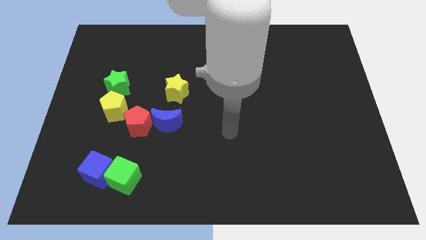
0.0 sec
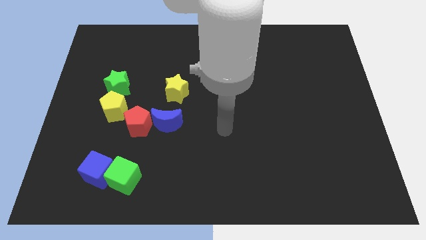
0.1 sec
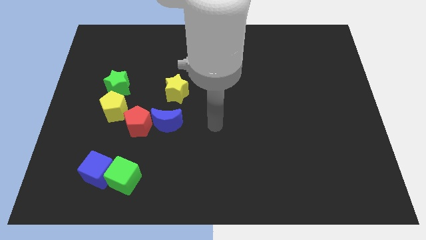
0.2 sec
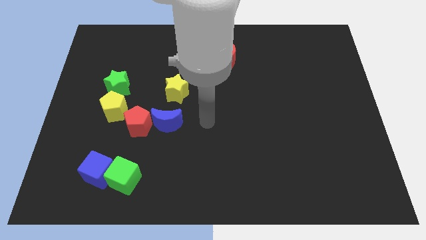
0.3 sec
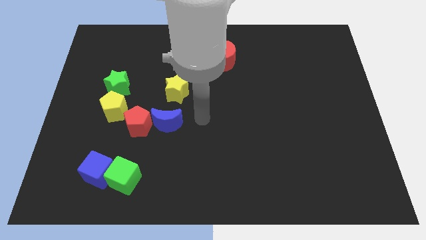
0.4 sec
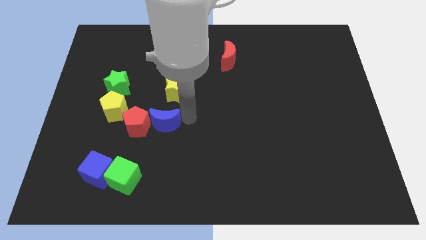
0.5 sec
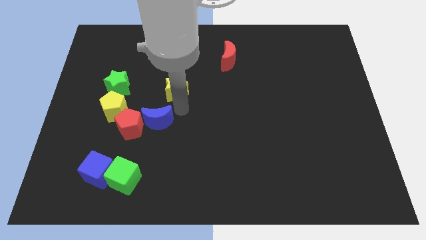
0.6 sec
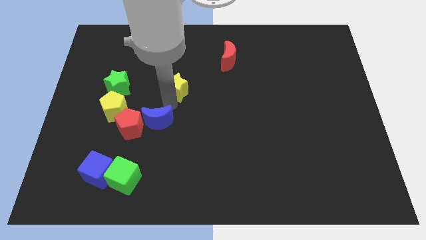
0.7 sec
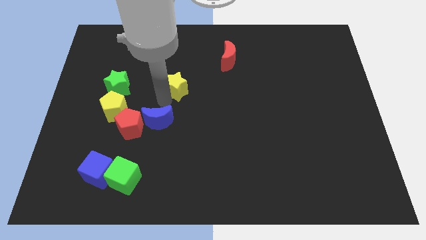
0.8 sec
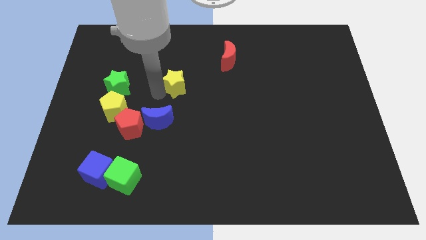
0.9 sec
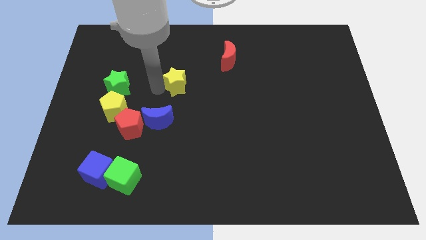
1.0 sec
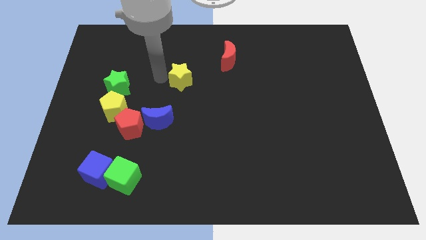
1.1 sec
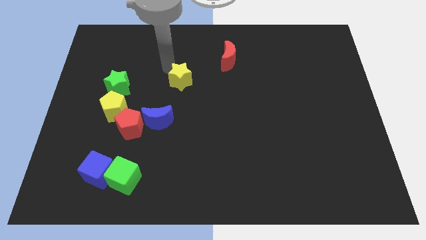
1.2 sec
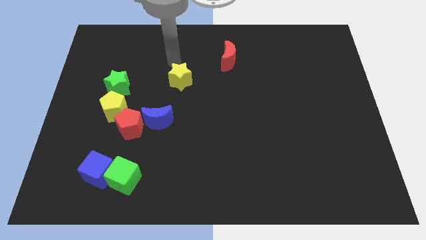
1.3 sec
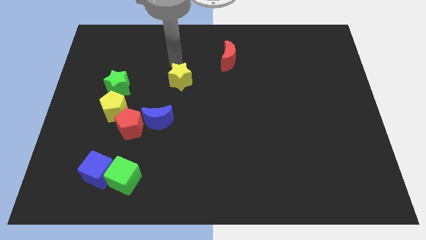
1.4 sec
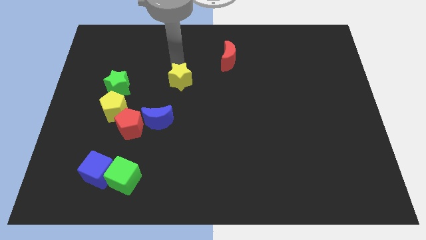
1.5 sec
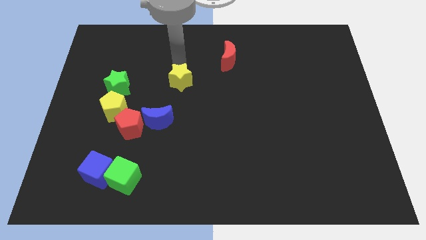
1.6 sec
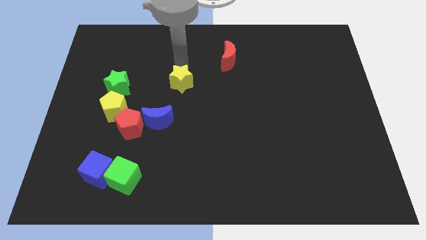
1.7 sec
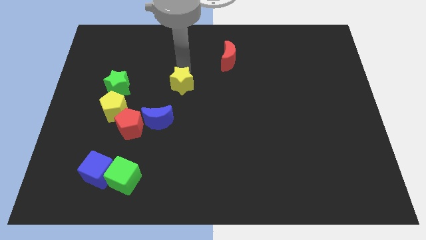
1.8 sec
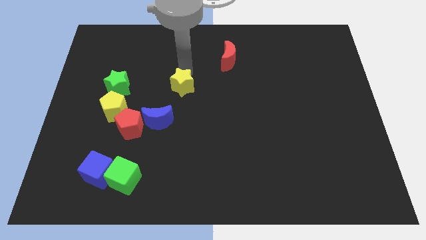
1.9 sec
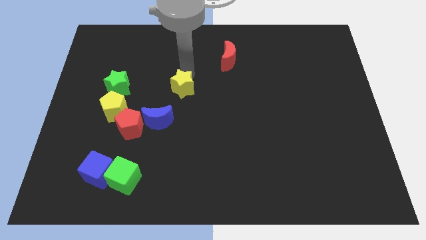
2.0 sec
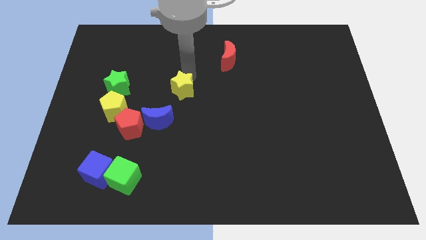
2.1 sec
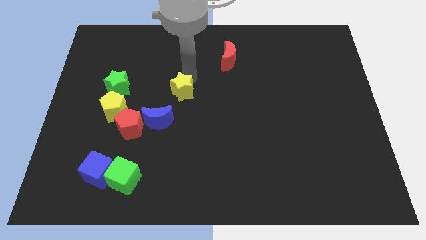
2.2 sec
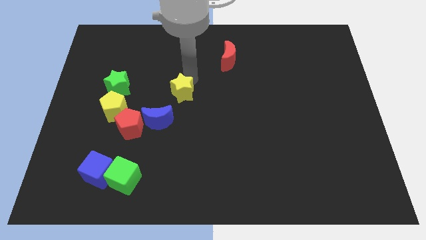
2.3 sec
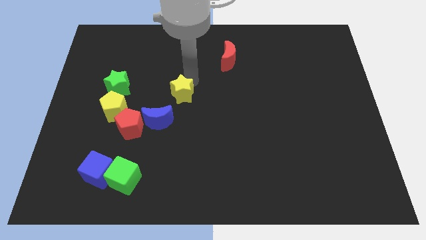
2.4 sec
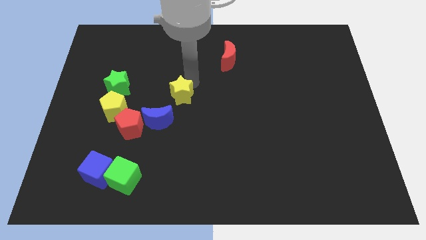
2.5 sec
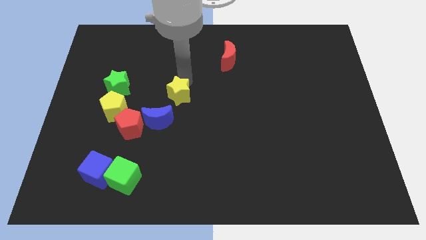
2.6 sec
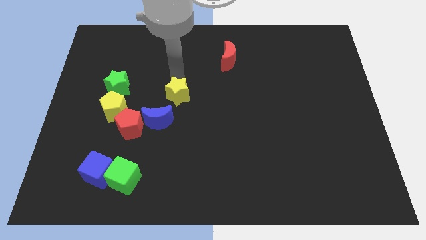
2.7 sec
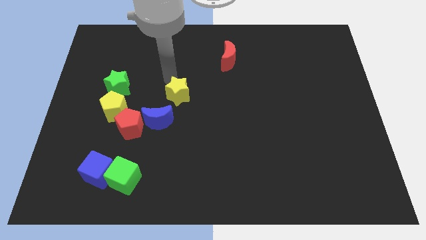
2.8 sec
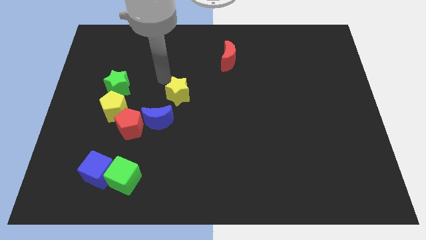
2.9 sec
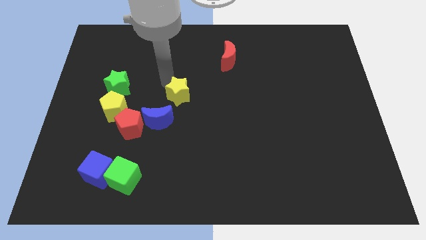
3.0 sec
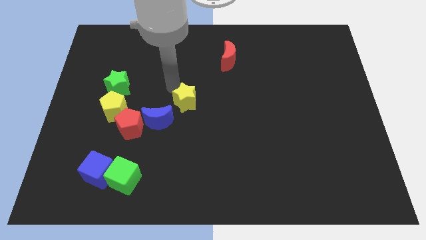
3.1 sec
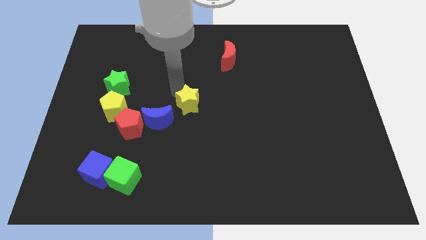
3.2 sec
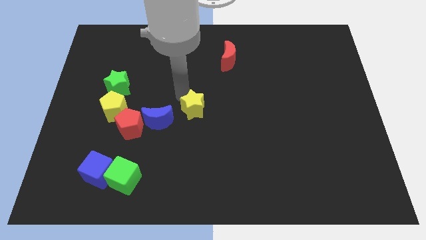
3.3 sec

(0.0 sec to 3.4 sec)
slightly slide the yellow star diagonally down and right

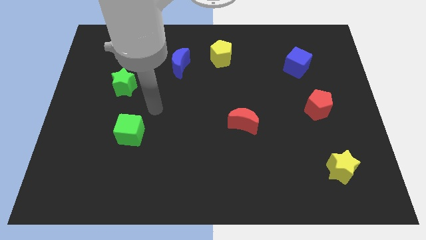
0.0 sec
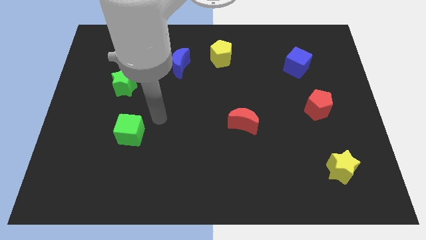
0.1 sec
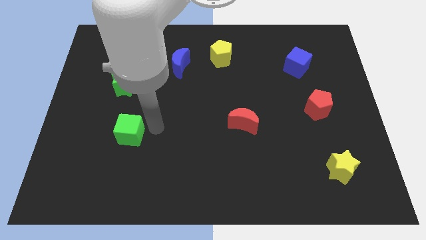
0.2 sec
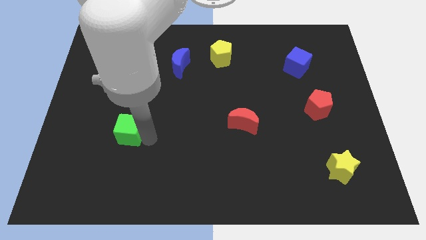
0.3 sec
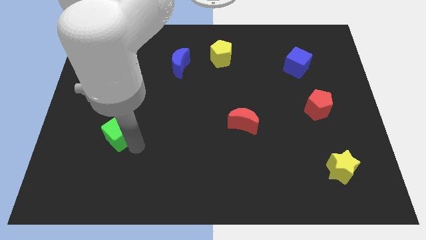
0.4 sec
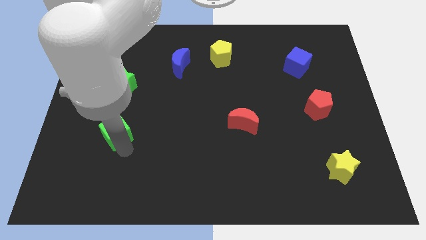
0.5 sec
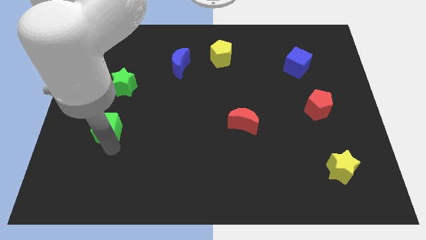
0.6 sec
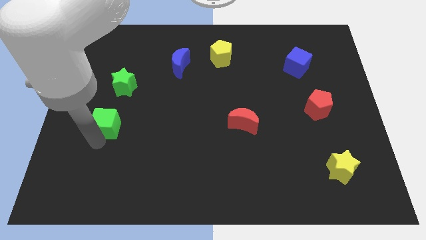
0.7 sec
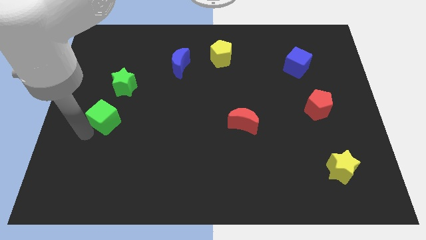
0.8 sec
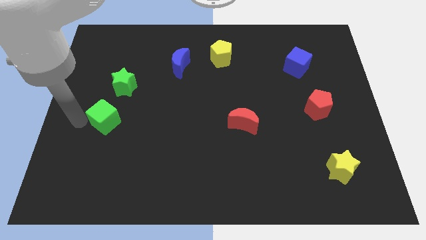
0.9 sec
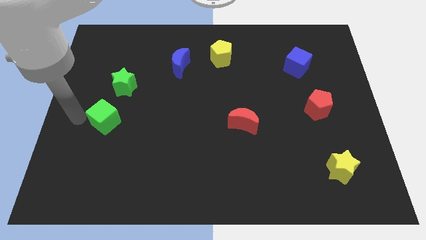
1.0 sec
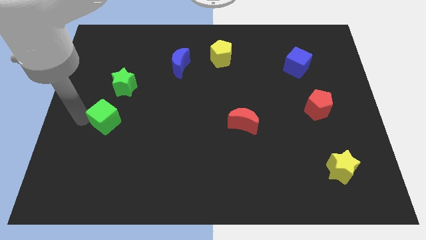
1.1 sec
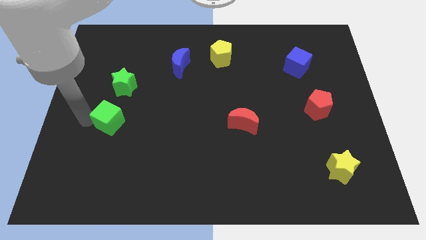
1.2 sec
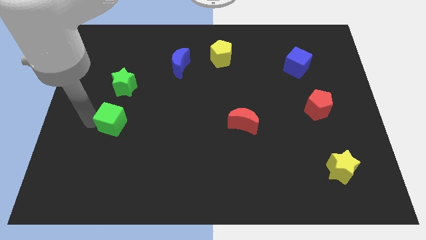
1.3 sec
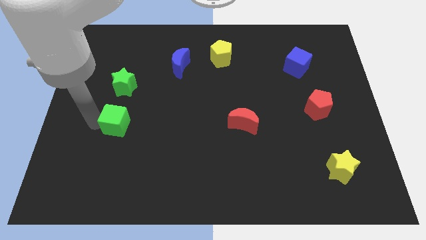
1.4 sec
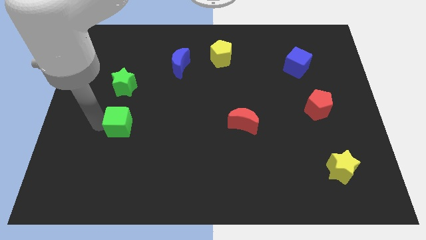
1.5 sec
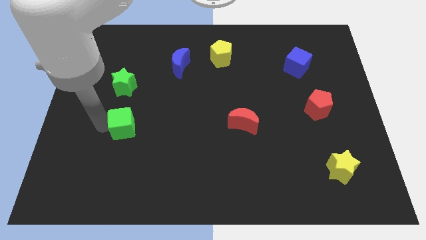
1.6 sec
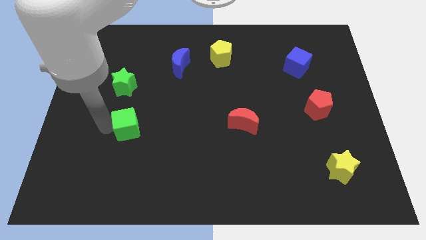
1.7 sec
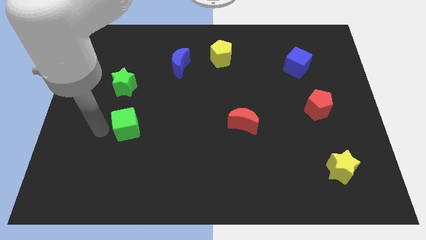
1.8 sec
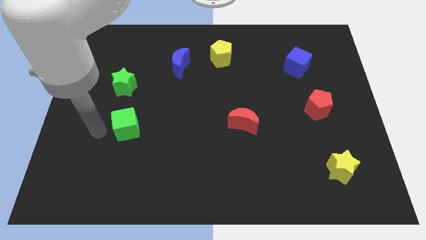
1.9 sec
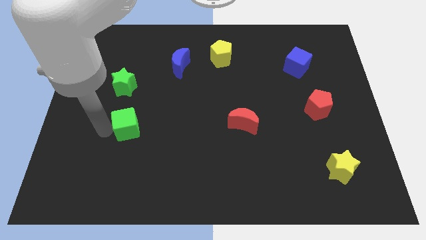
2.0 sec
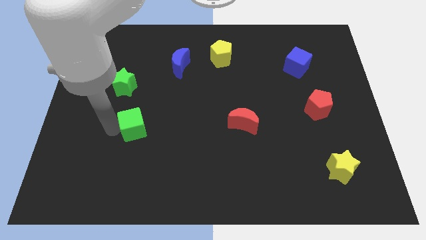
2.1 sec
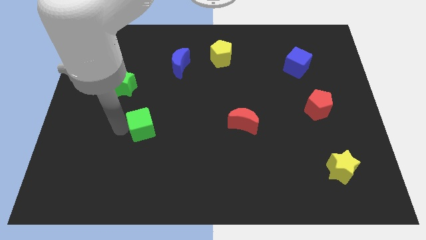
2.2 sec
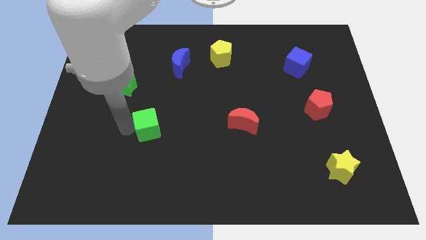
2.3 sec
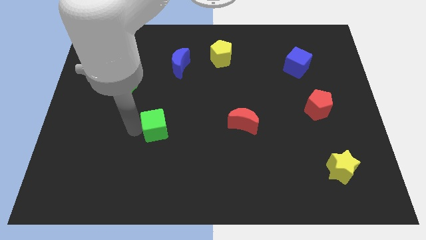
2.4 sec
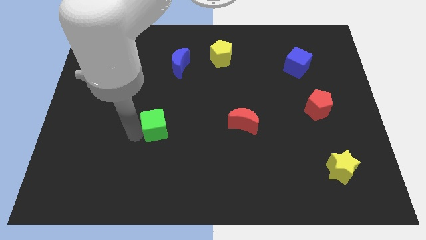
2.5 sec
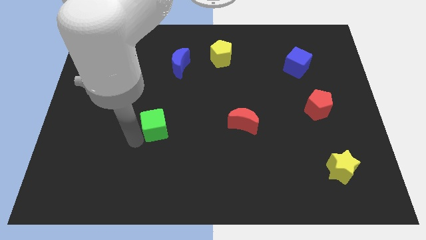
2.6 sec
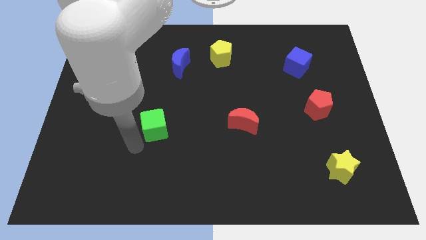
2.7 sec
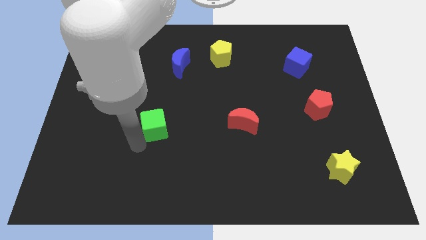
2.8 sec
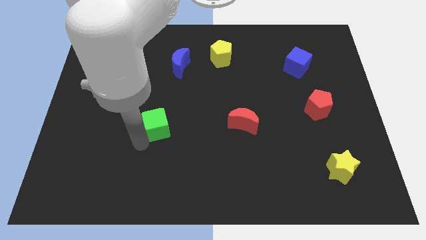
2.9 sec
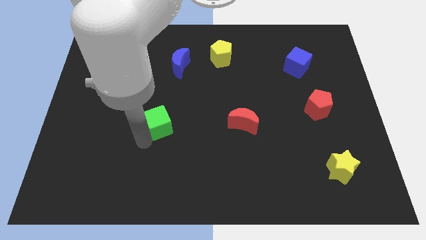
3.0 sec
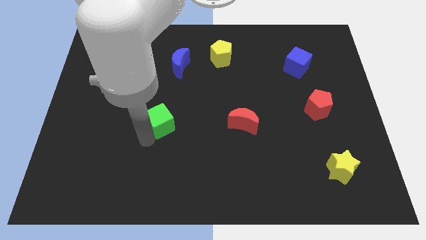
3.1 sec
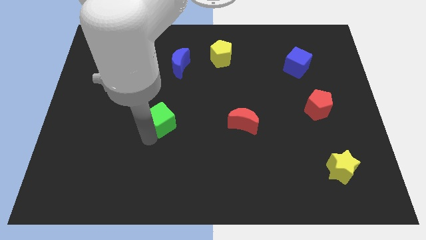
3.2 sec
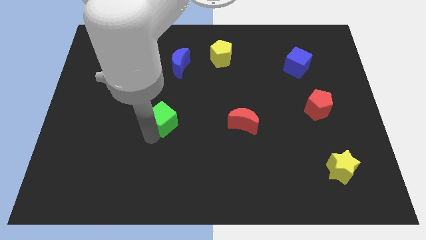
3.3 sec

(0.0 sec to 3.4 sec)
slide the green cube a bit upwards and then right

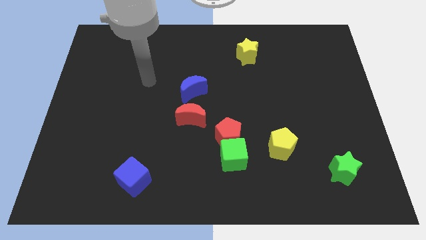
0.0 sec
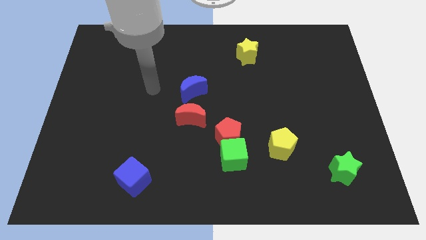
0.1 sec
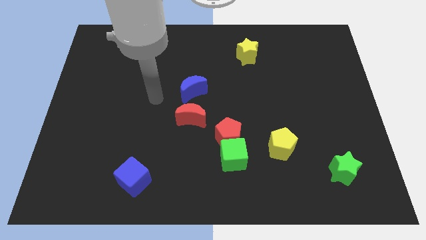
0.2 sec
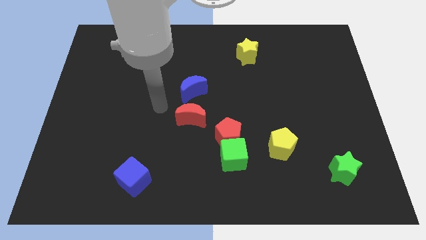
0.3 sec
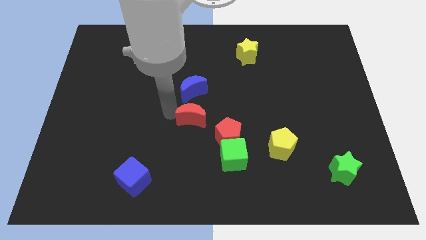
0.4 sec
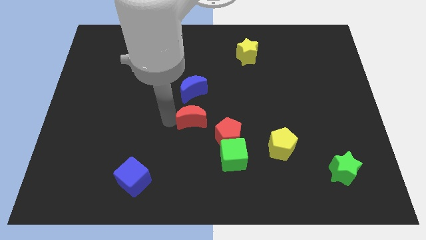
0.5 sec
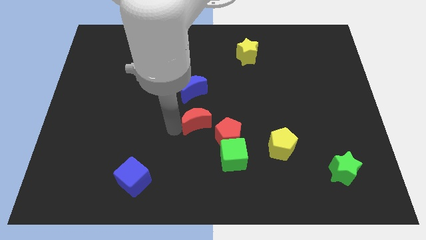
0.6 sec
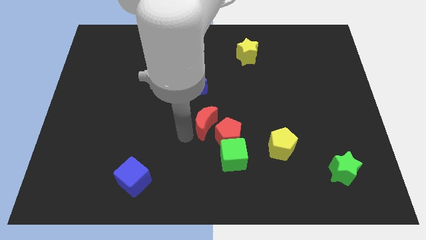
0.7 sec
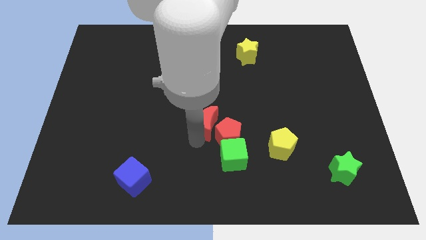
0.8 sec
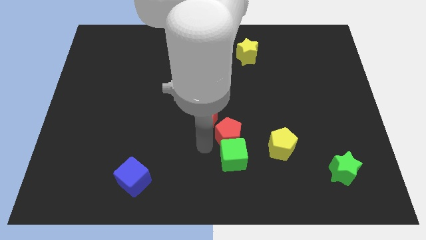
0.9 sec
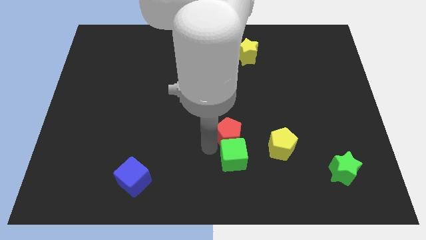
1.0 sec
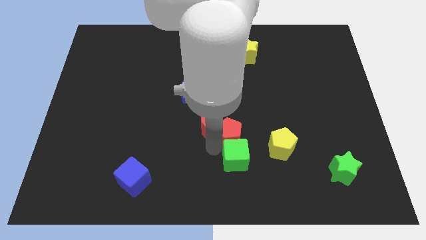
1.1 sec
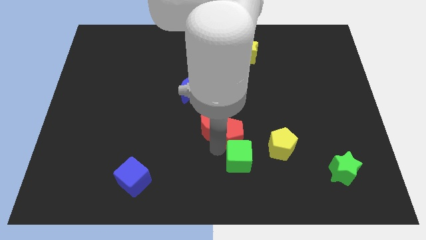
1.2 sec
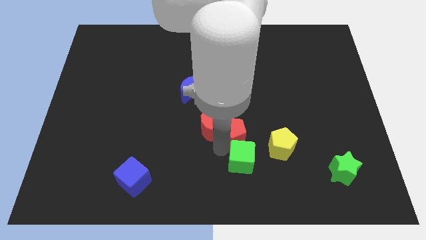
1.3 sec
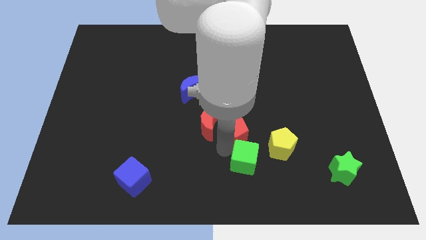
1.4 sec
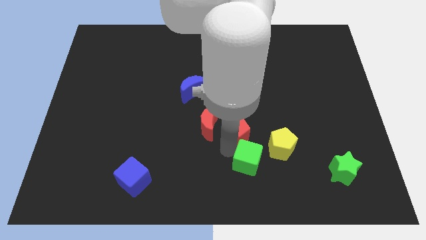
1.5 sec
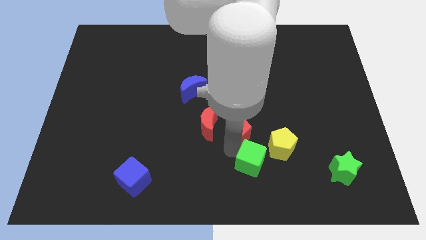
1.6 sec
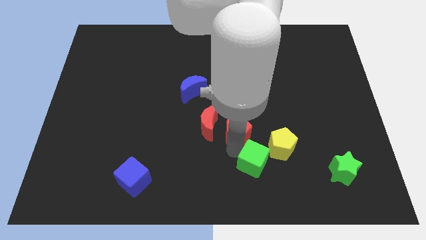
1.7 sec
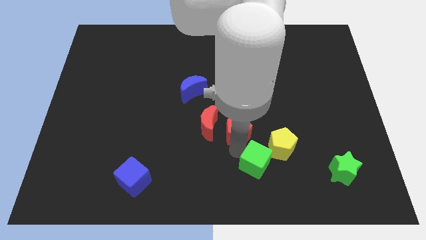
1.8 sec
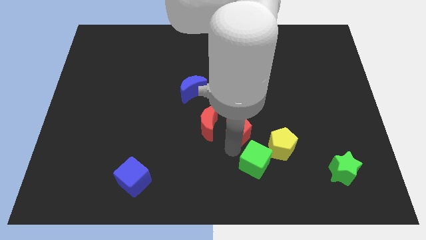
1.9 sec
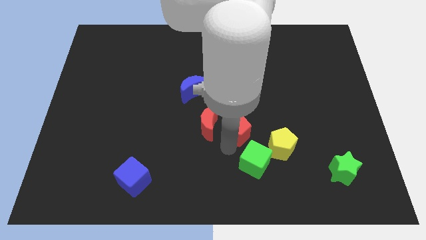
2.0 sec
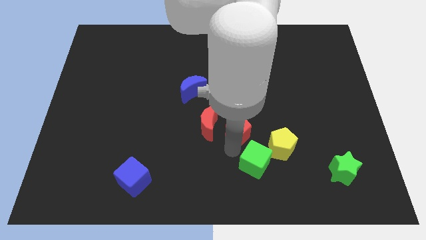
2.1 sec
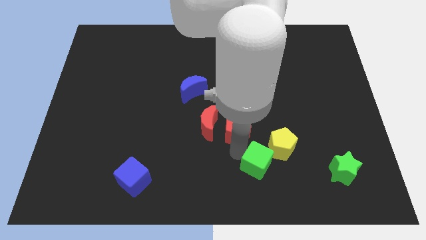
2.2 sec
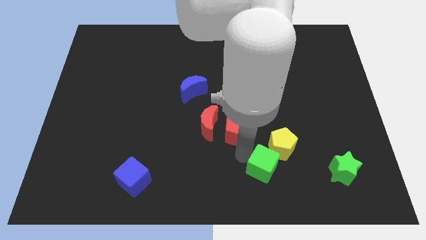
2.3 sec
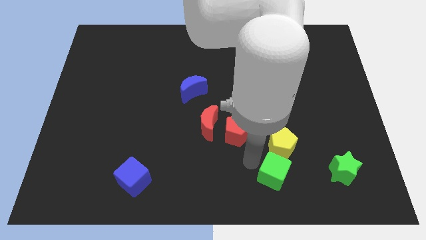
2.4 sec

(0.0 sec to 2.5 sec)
slightly push the green cube to the right
